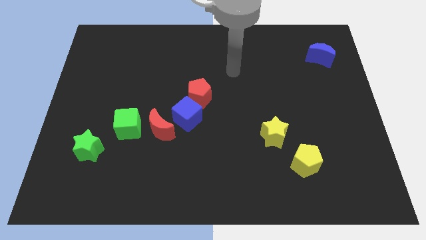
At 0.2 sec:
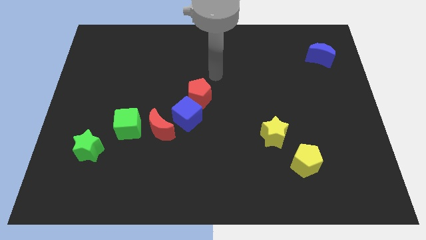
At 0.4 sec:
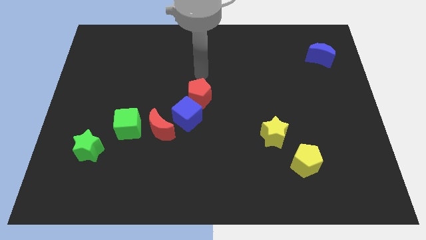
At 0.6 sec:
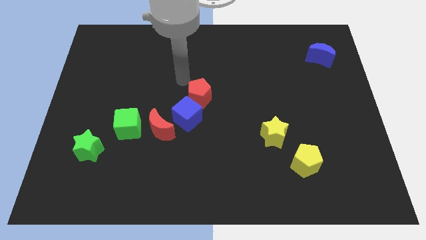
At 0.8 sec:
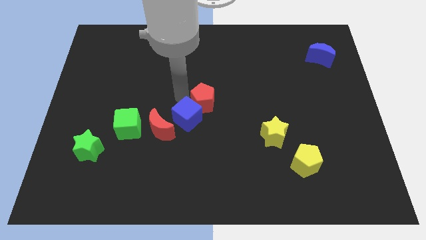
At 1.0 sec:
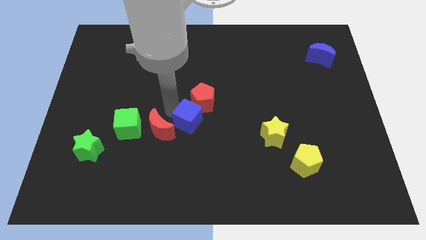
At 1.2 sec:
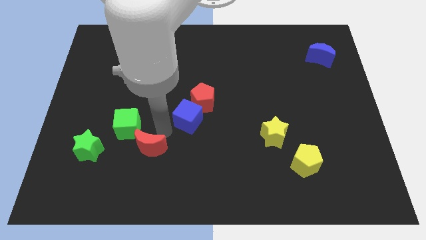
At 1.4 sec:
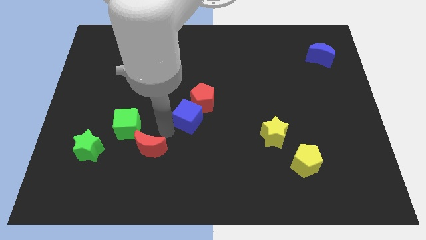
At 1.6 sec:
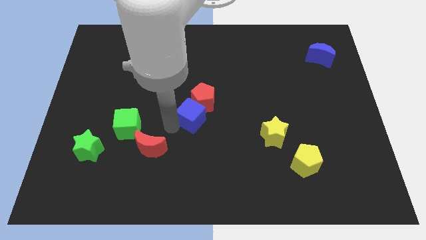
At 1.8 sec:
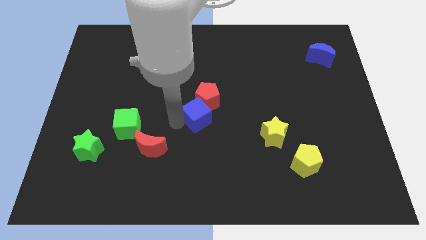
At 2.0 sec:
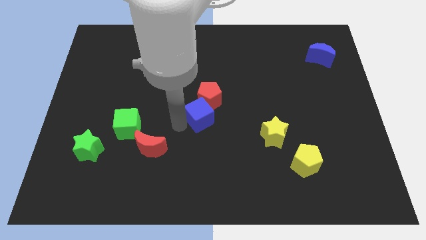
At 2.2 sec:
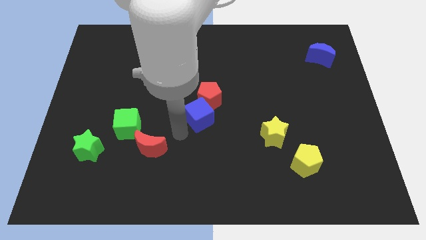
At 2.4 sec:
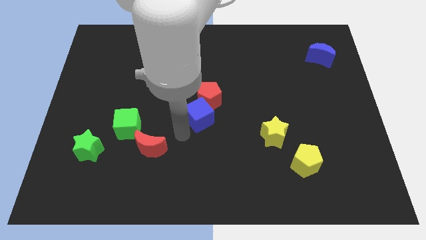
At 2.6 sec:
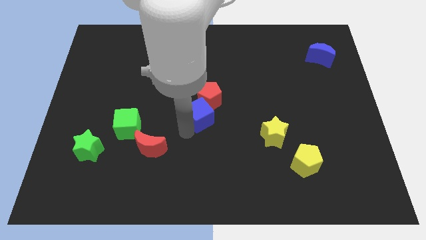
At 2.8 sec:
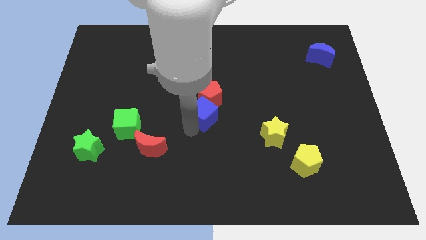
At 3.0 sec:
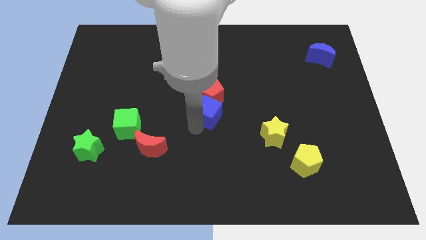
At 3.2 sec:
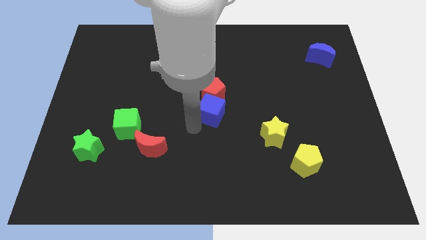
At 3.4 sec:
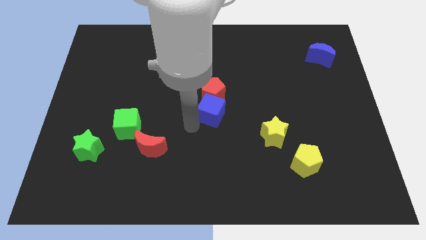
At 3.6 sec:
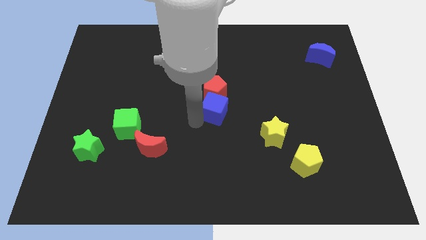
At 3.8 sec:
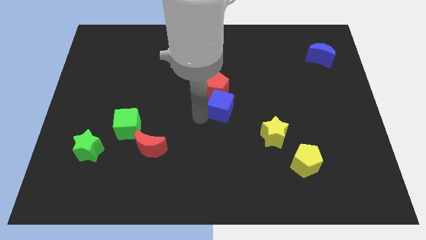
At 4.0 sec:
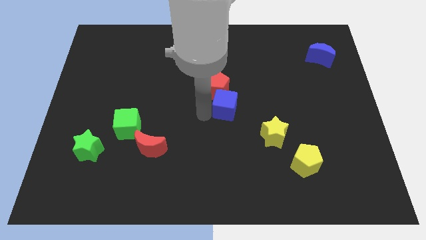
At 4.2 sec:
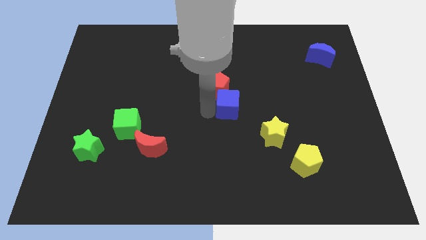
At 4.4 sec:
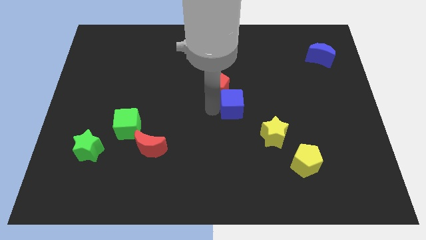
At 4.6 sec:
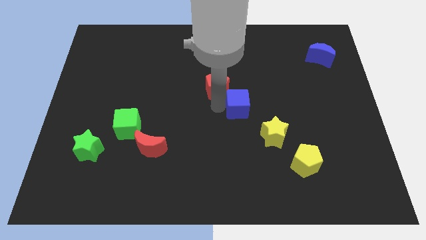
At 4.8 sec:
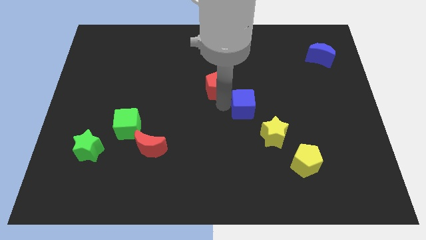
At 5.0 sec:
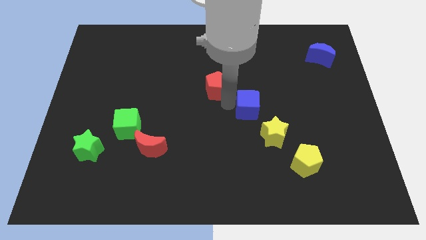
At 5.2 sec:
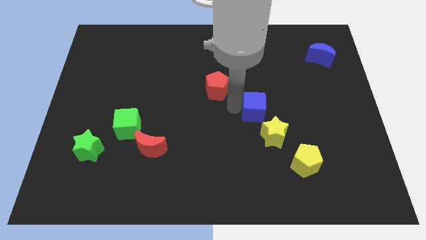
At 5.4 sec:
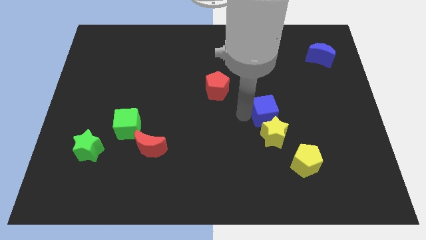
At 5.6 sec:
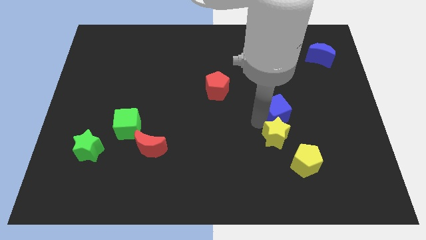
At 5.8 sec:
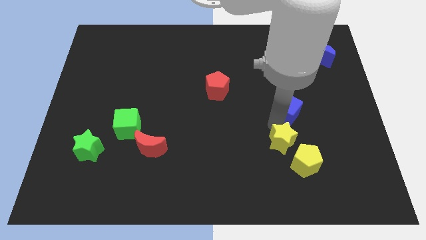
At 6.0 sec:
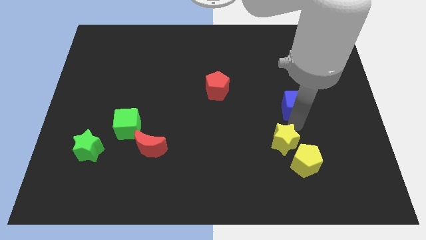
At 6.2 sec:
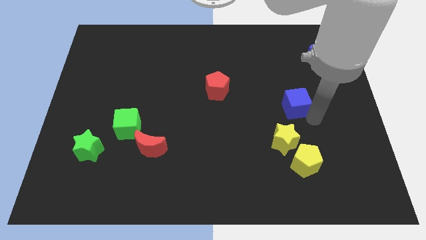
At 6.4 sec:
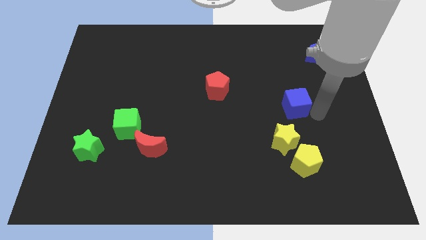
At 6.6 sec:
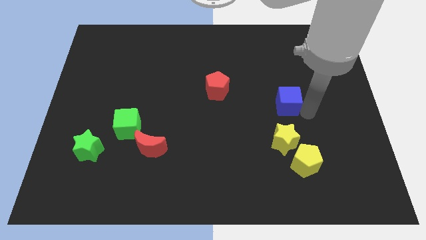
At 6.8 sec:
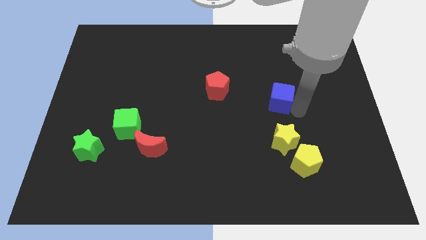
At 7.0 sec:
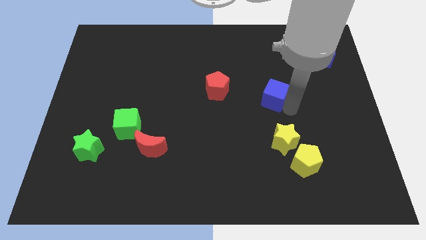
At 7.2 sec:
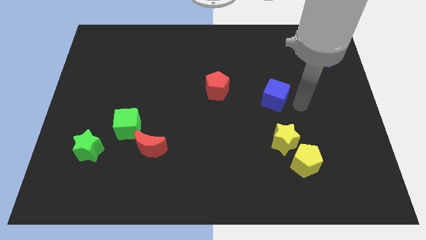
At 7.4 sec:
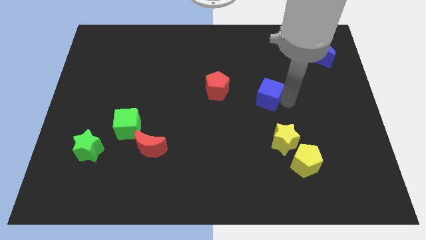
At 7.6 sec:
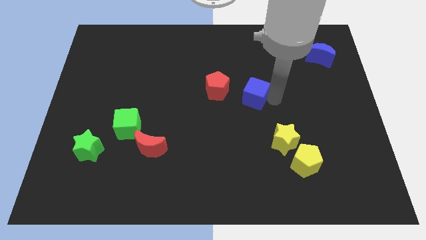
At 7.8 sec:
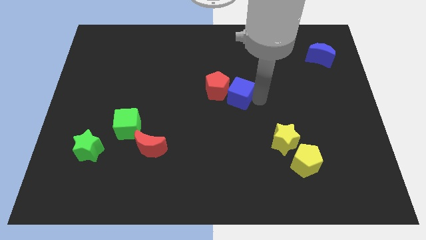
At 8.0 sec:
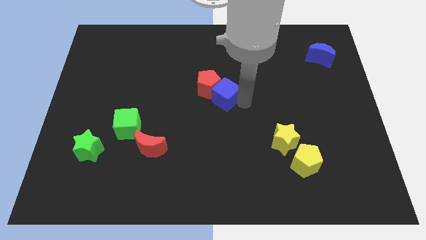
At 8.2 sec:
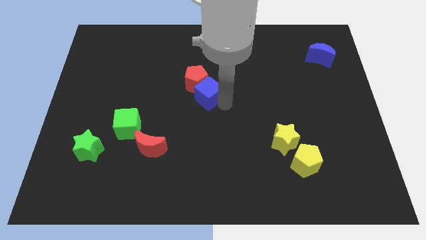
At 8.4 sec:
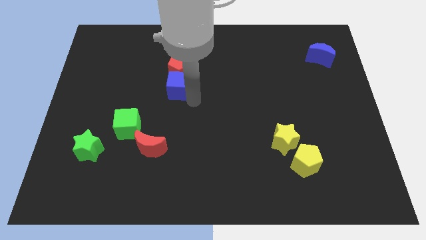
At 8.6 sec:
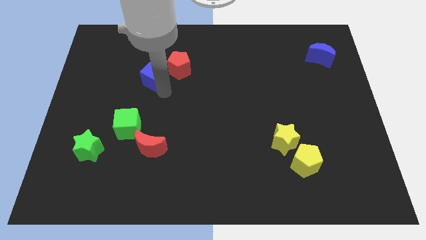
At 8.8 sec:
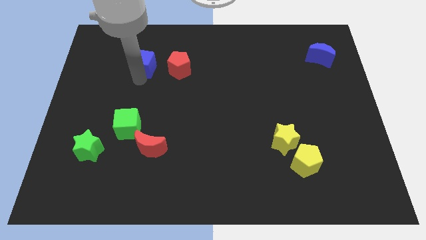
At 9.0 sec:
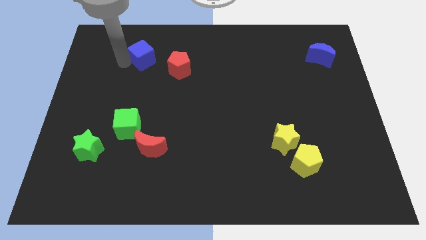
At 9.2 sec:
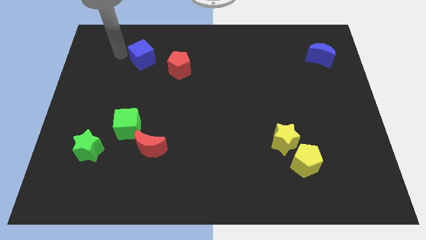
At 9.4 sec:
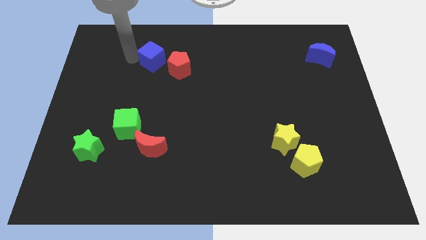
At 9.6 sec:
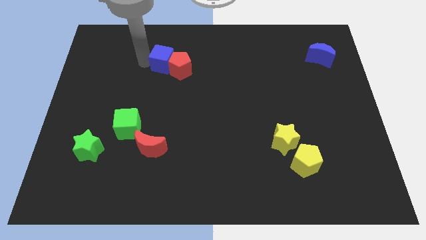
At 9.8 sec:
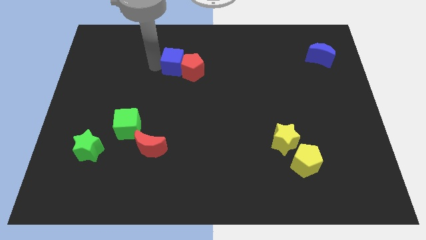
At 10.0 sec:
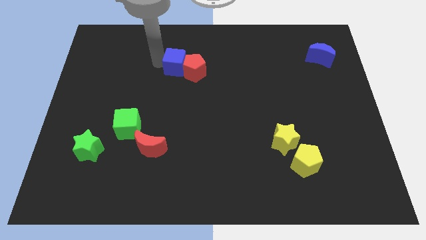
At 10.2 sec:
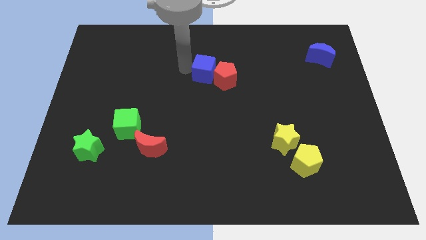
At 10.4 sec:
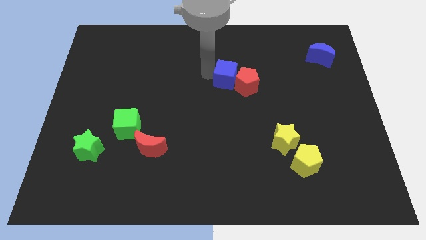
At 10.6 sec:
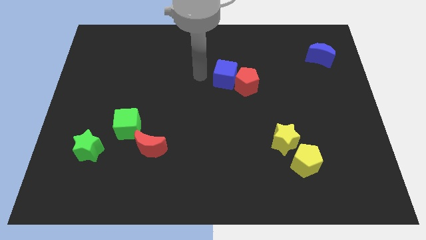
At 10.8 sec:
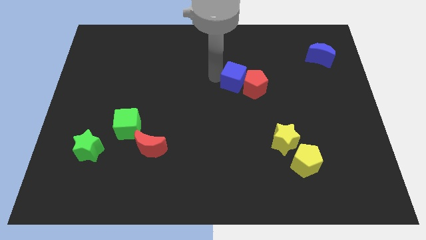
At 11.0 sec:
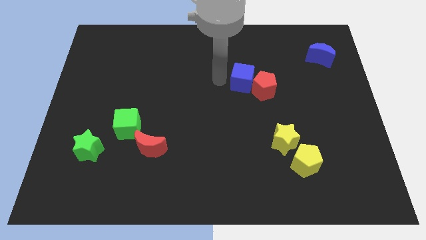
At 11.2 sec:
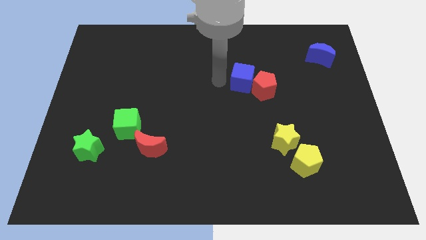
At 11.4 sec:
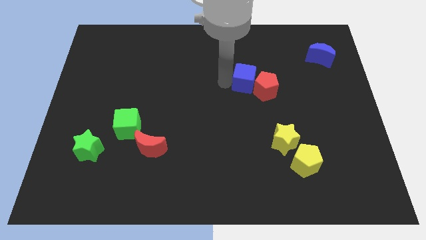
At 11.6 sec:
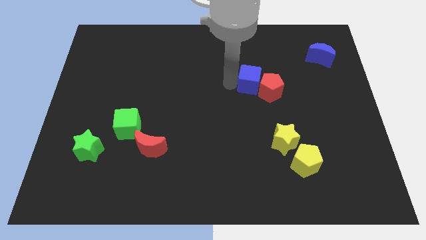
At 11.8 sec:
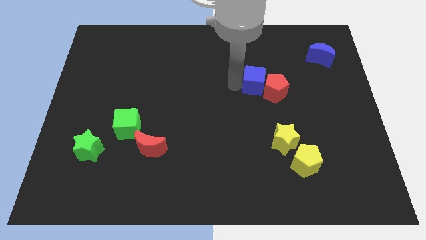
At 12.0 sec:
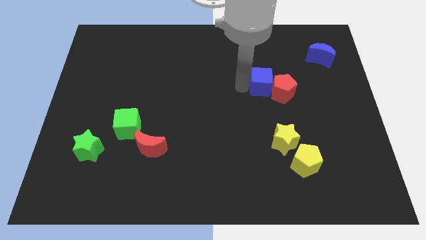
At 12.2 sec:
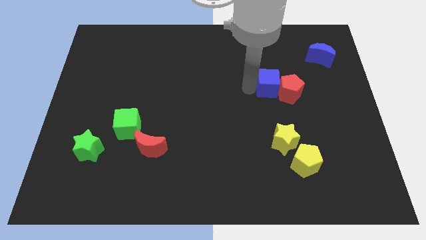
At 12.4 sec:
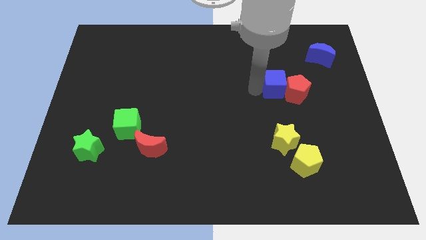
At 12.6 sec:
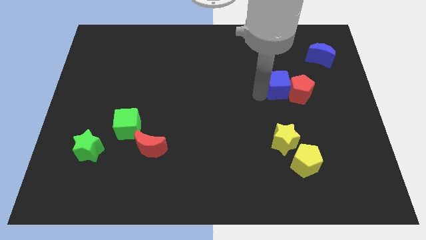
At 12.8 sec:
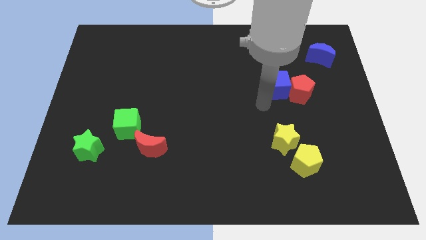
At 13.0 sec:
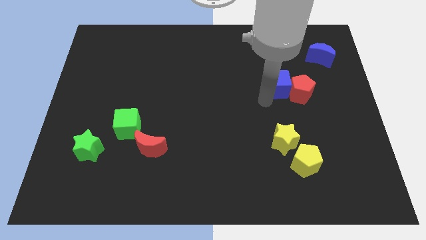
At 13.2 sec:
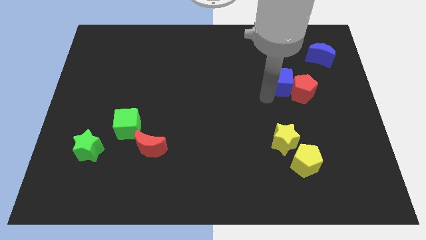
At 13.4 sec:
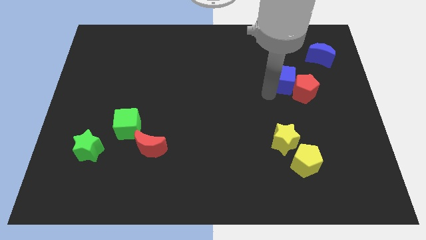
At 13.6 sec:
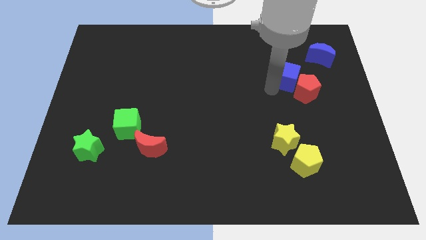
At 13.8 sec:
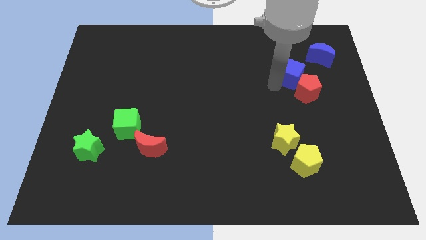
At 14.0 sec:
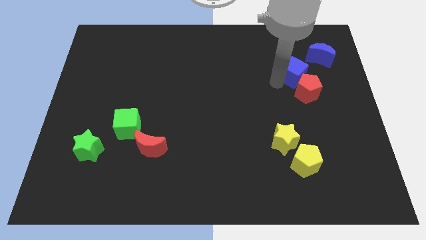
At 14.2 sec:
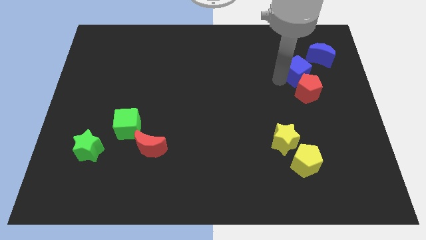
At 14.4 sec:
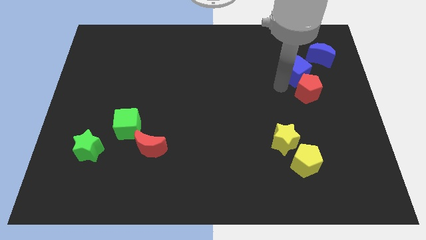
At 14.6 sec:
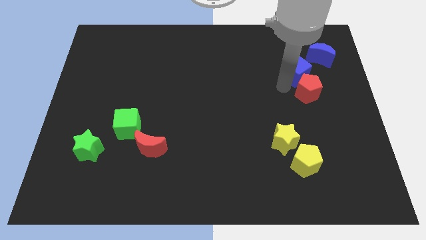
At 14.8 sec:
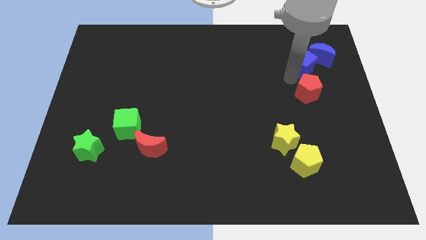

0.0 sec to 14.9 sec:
put the blue cube close to the blue moon
